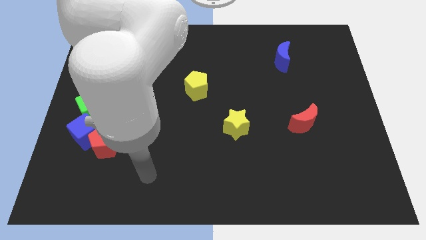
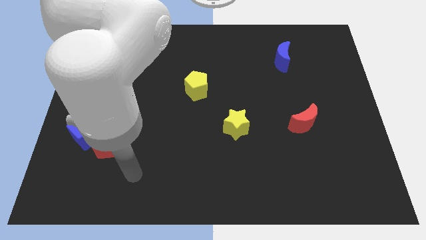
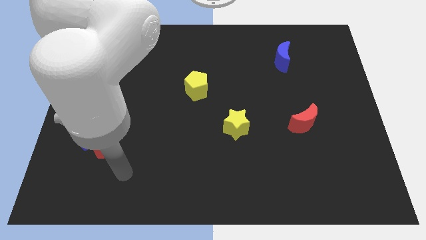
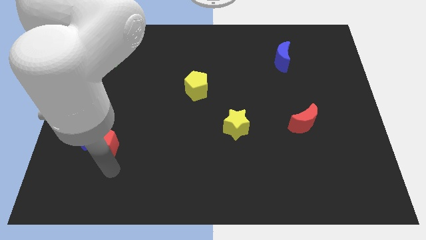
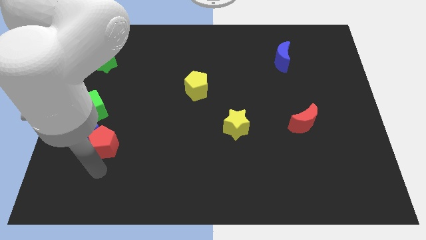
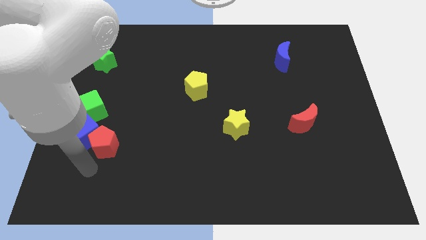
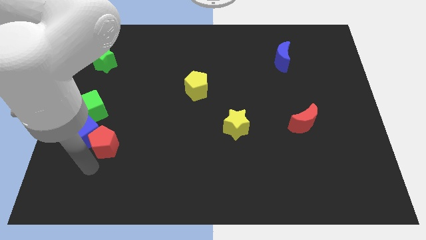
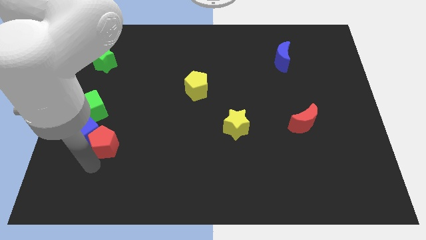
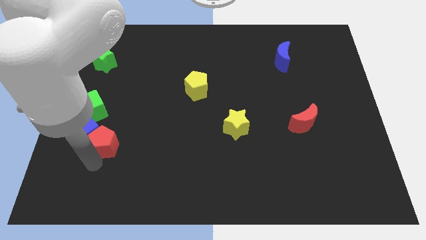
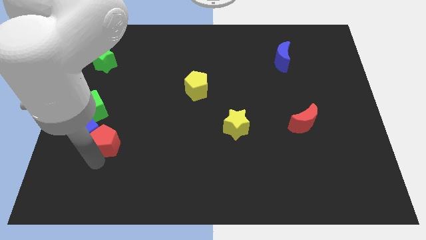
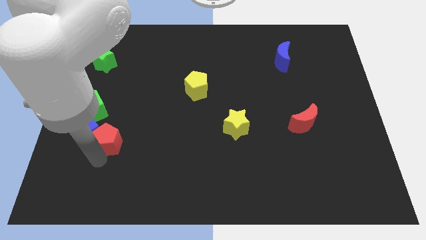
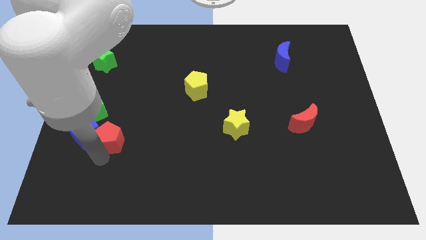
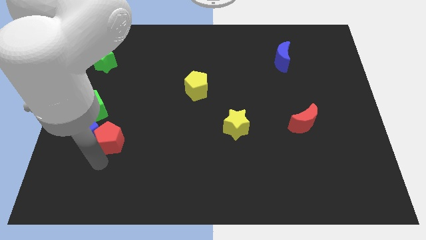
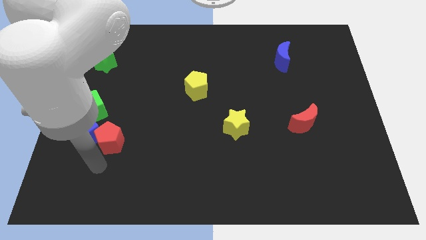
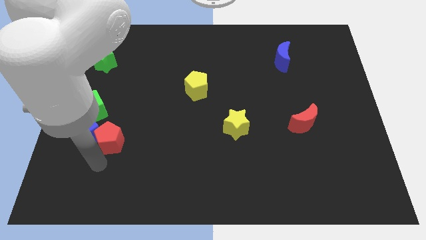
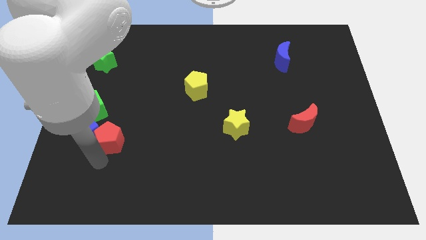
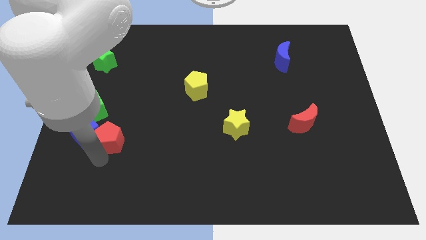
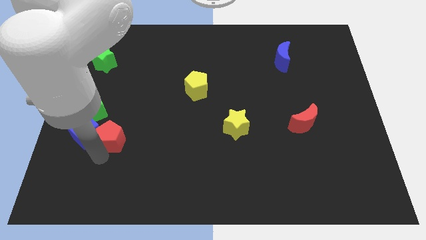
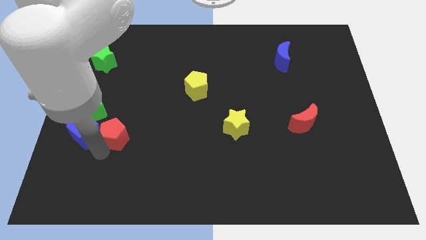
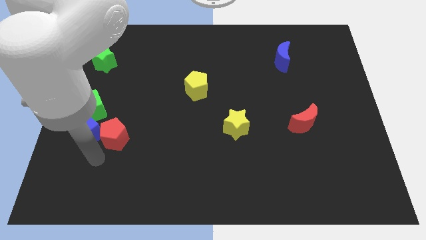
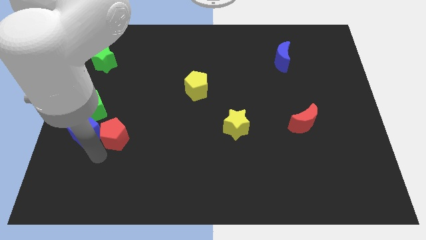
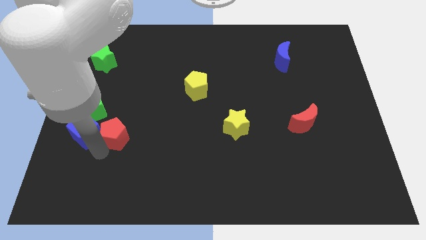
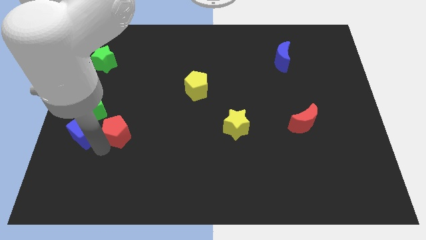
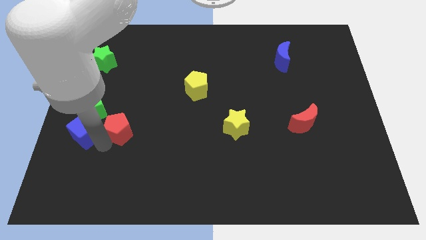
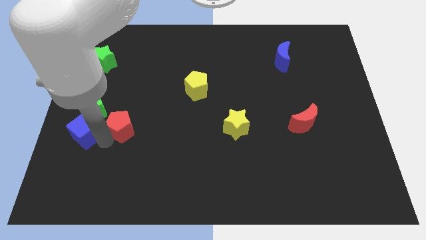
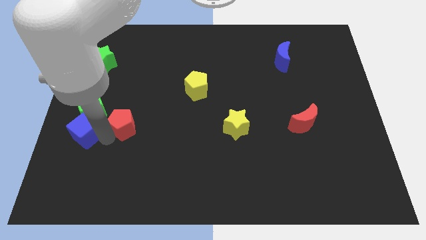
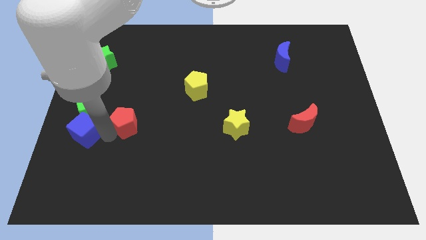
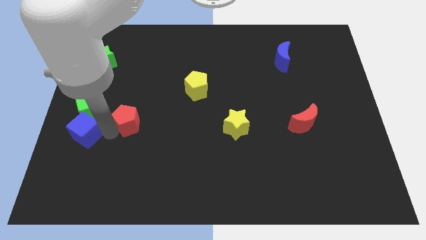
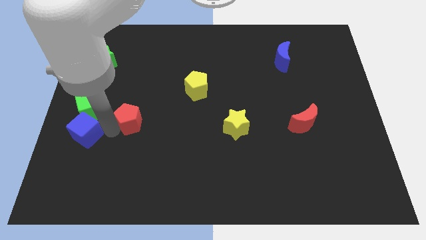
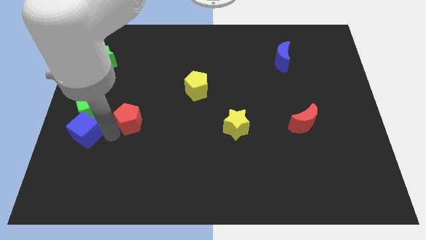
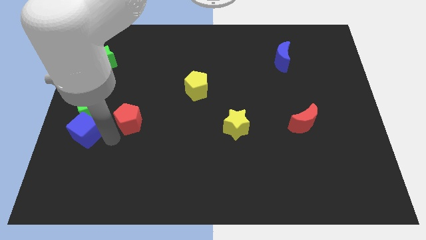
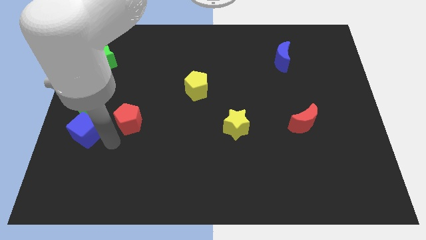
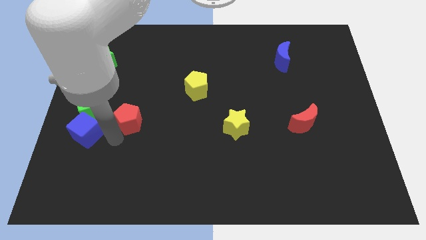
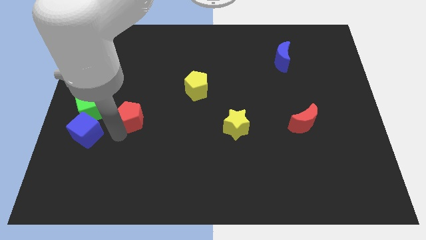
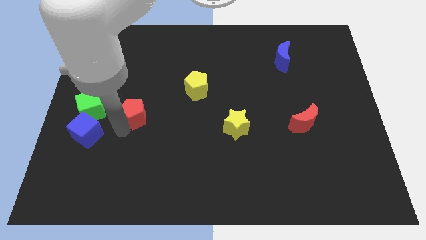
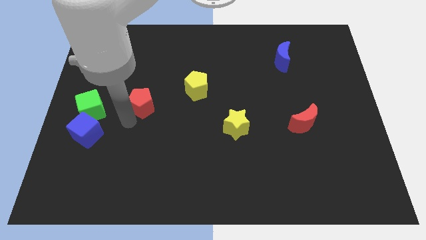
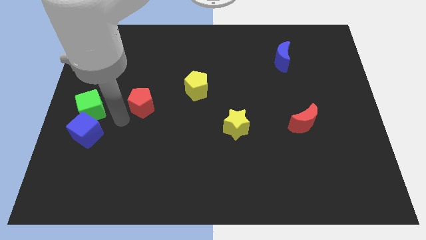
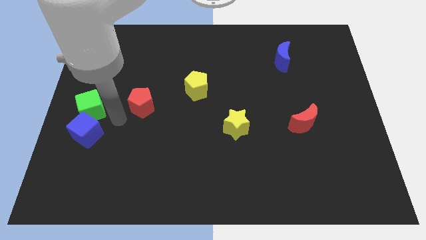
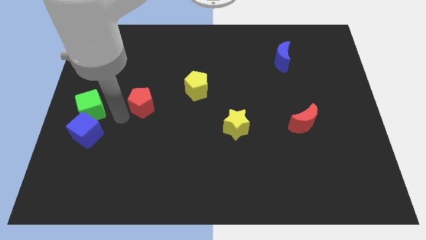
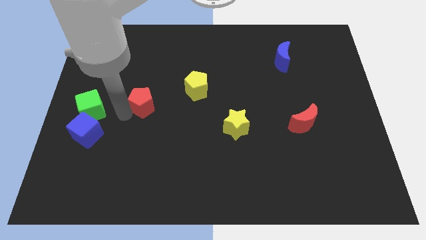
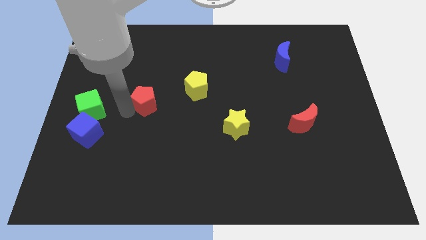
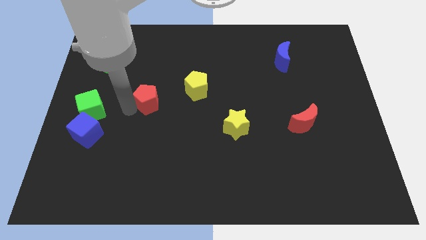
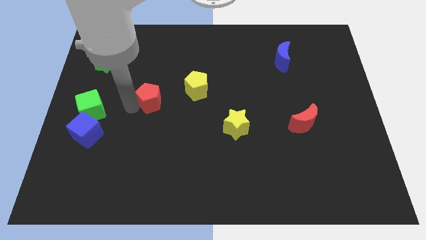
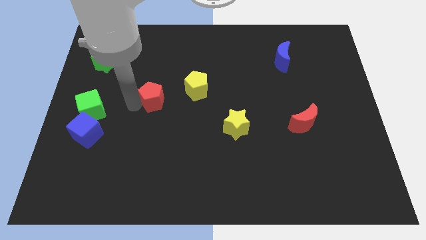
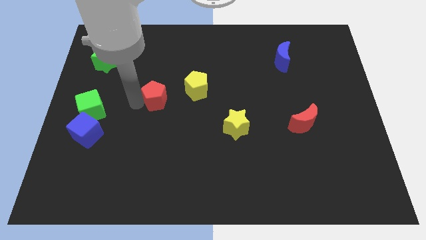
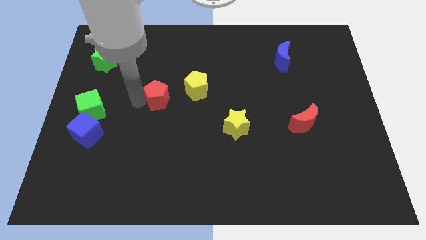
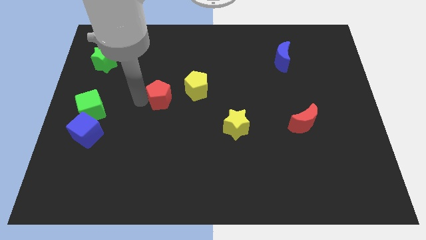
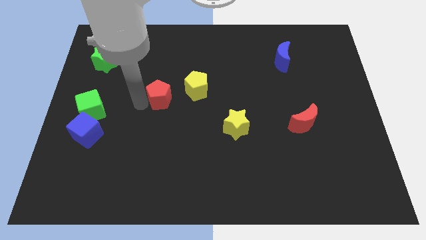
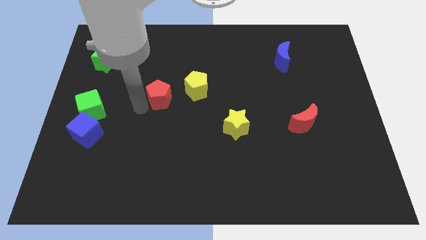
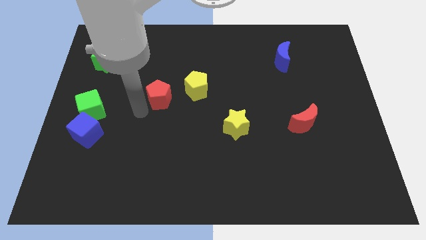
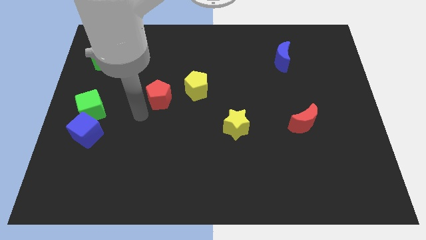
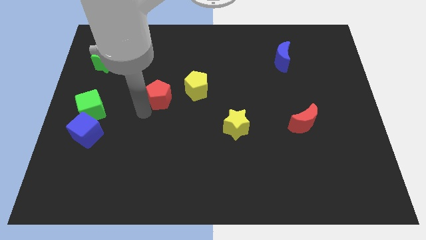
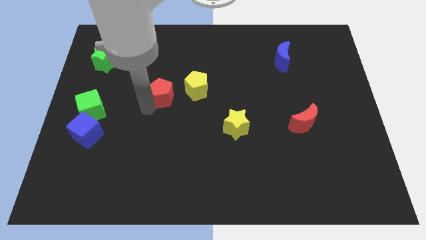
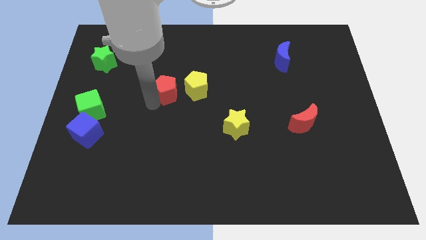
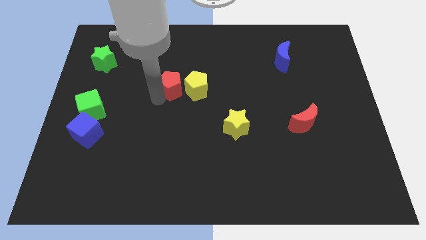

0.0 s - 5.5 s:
move the red pentagon up and to the right diagonally

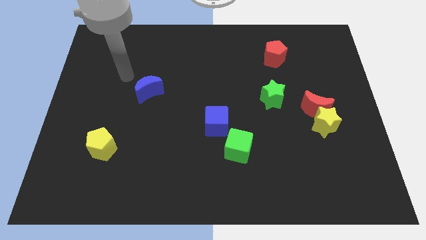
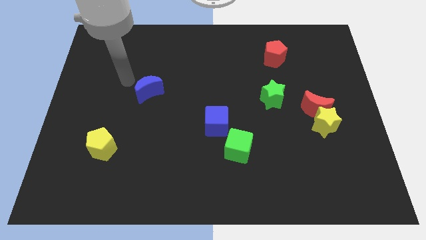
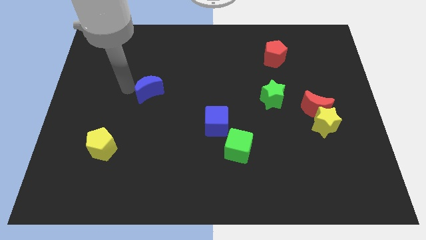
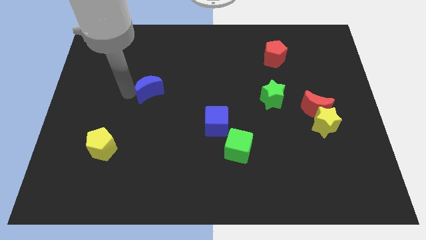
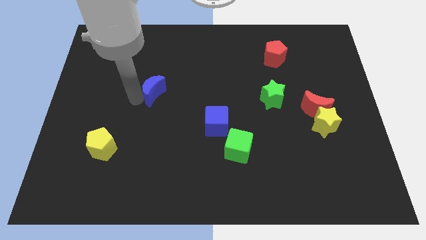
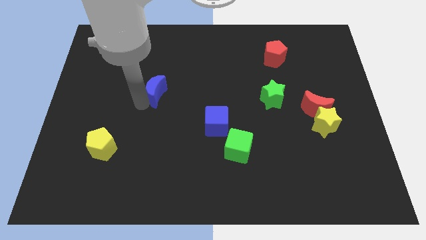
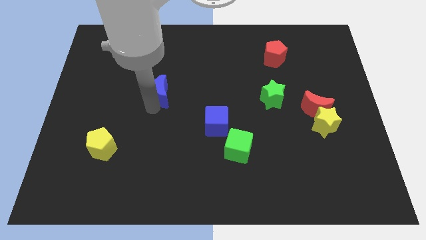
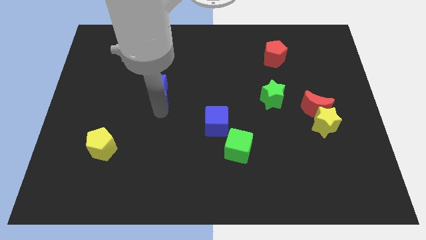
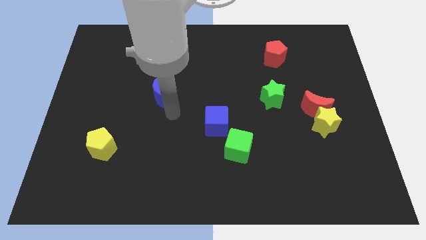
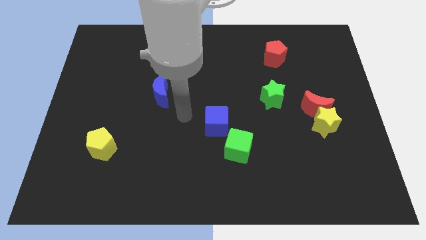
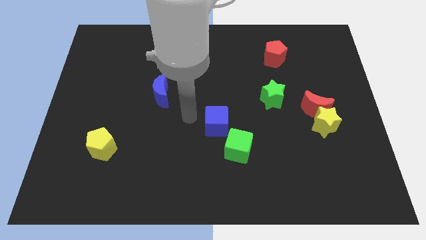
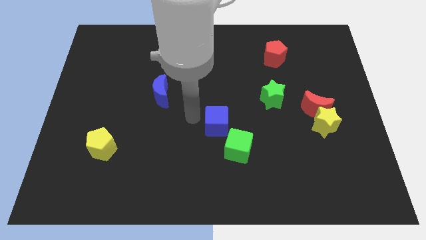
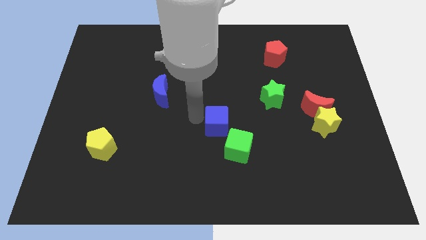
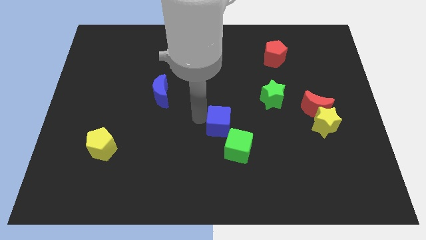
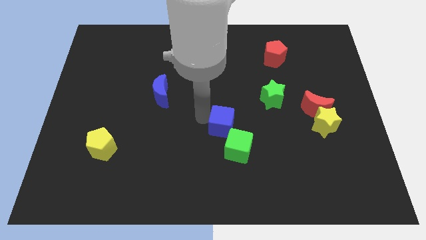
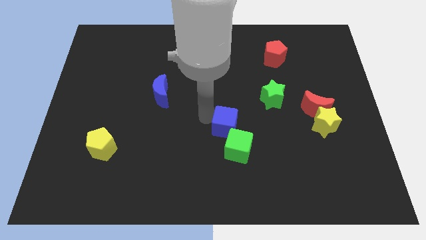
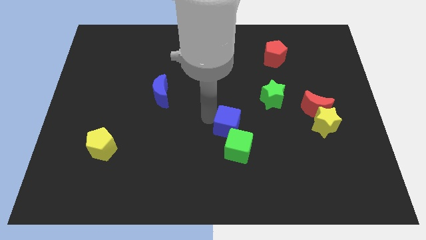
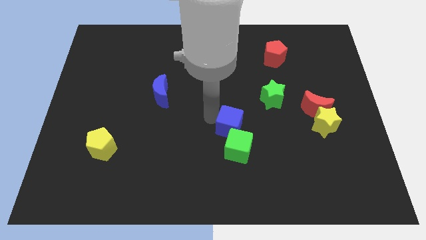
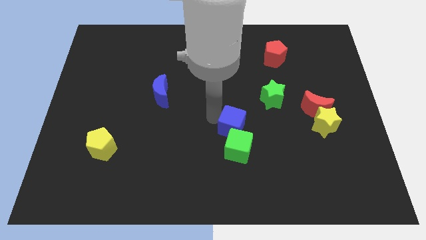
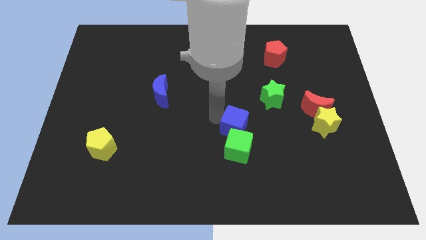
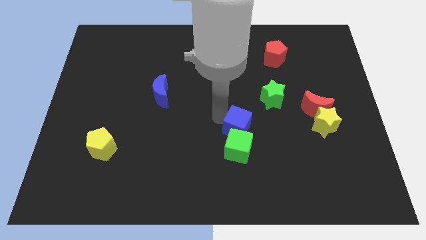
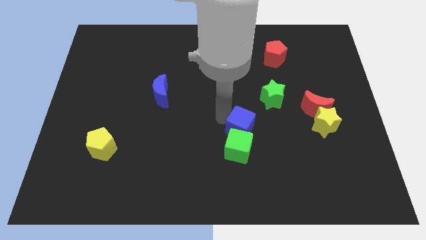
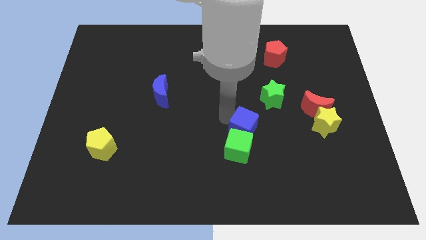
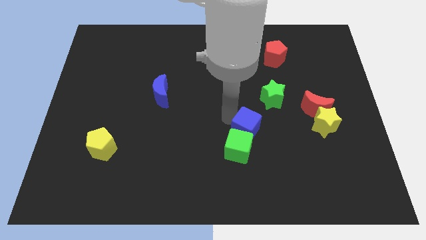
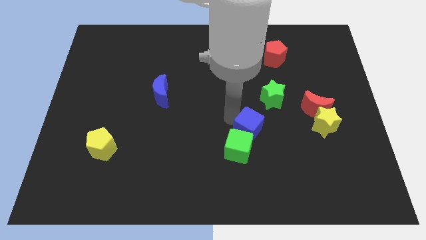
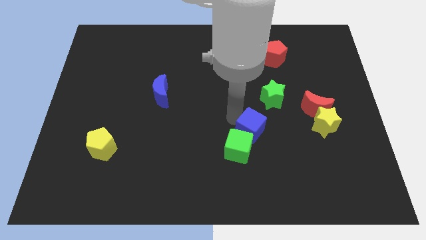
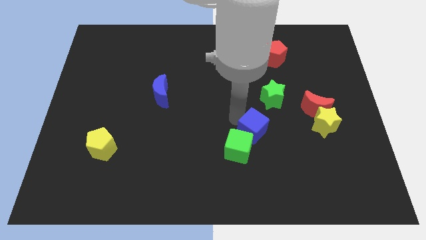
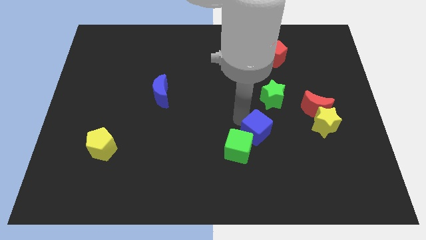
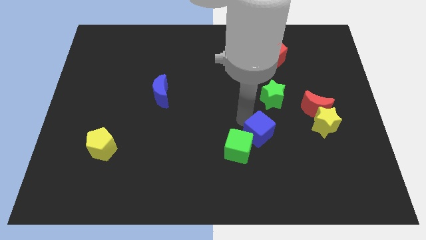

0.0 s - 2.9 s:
move the blue cube a bit down and then right
